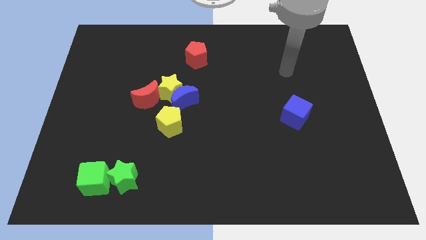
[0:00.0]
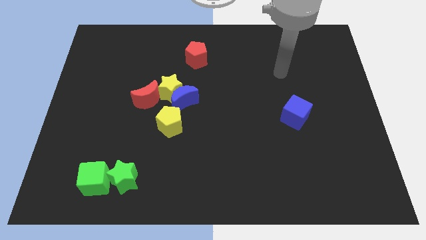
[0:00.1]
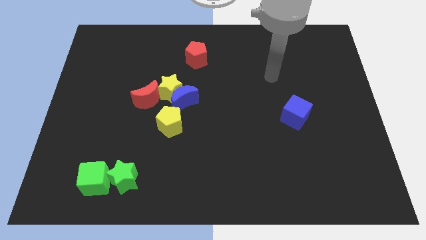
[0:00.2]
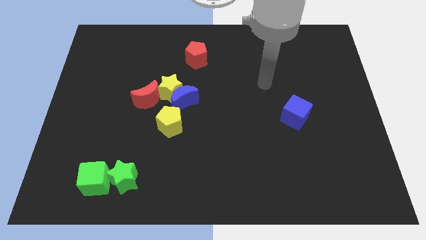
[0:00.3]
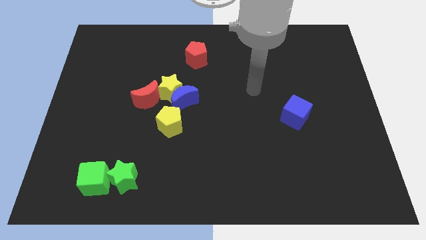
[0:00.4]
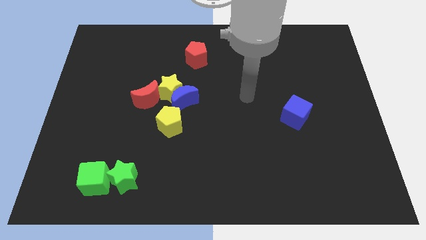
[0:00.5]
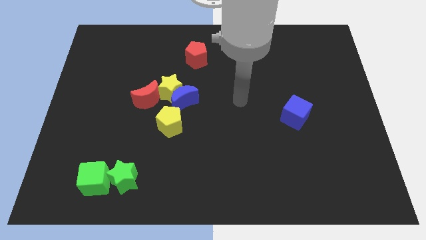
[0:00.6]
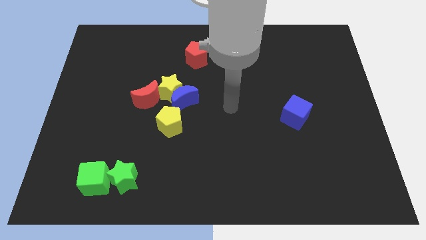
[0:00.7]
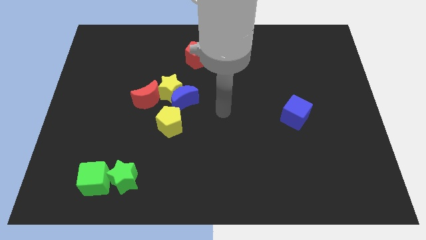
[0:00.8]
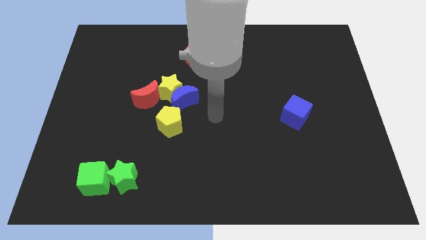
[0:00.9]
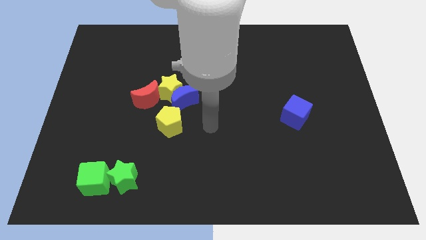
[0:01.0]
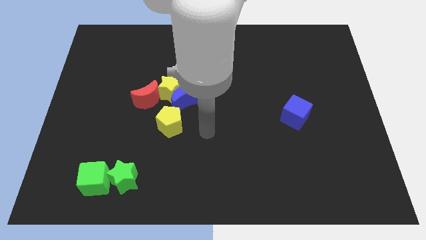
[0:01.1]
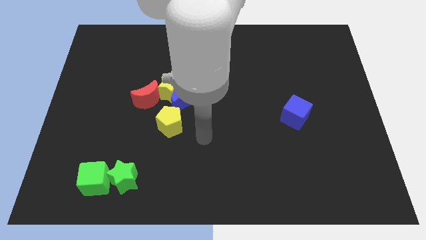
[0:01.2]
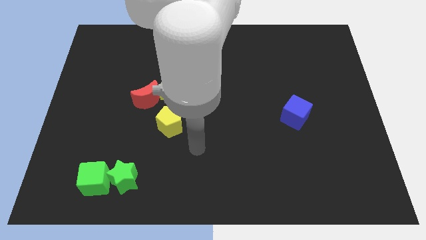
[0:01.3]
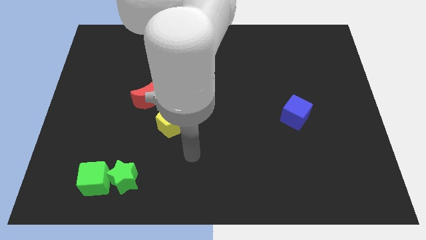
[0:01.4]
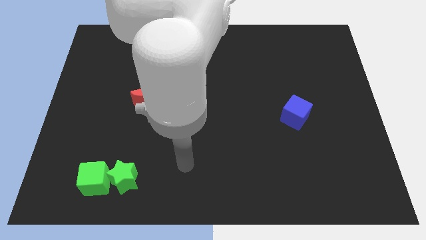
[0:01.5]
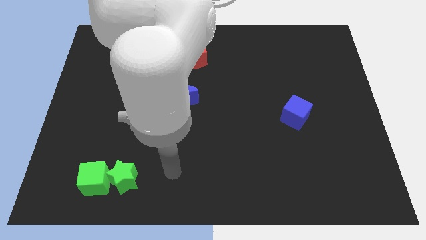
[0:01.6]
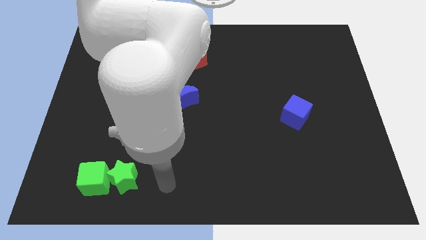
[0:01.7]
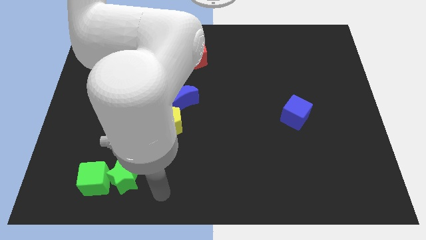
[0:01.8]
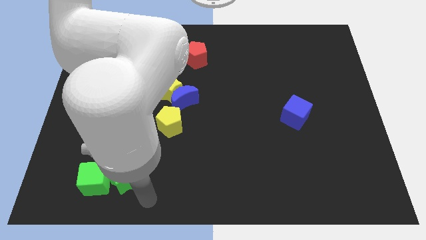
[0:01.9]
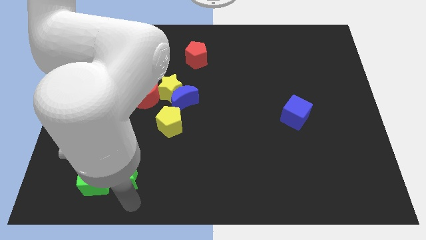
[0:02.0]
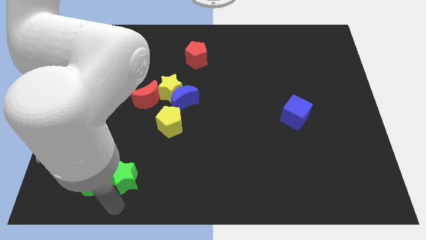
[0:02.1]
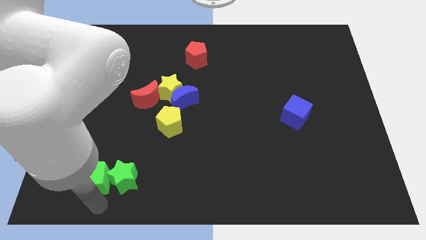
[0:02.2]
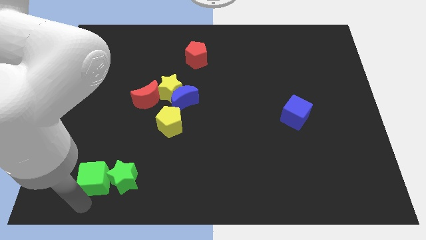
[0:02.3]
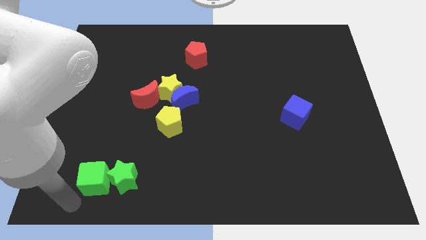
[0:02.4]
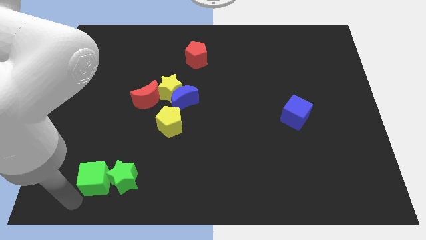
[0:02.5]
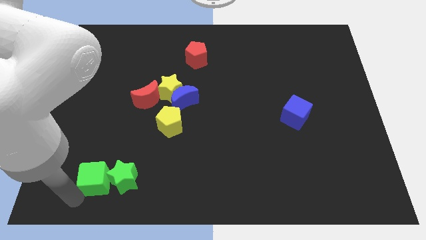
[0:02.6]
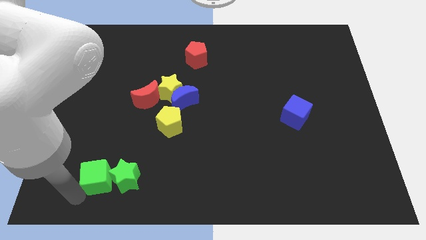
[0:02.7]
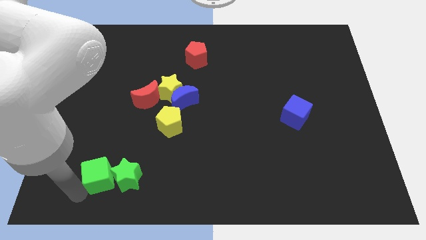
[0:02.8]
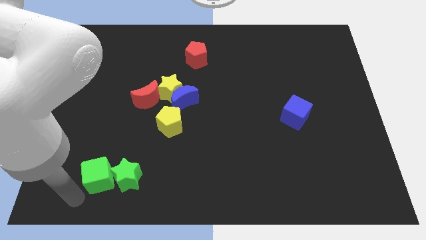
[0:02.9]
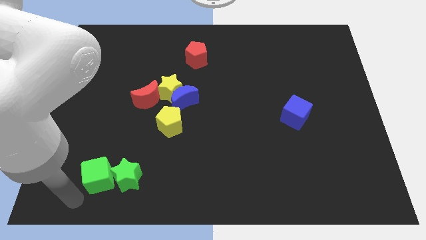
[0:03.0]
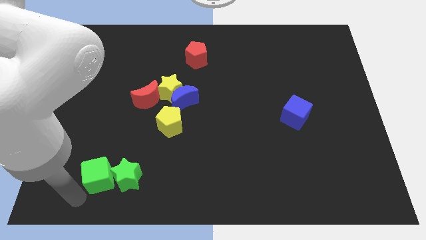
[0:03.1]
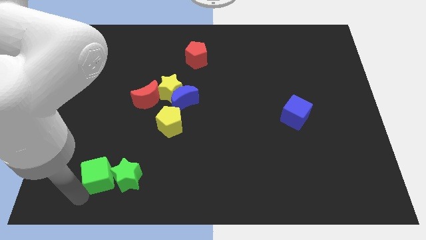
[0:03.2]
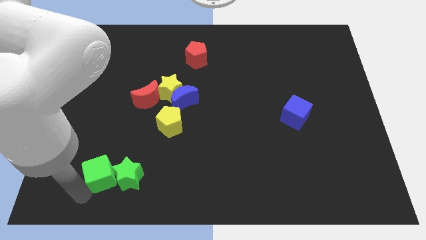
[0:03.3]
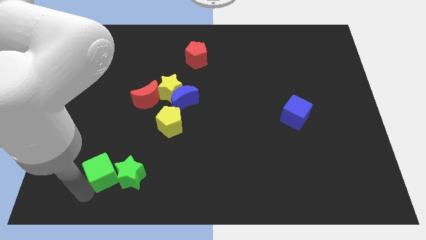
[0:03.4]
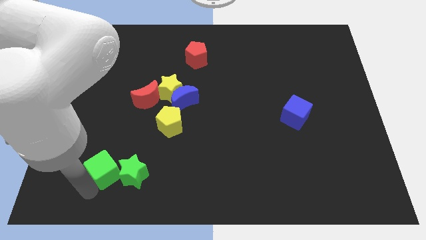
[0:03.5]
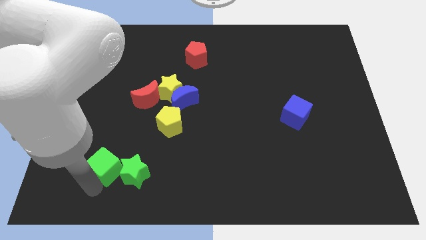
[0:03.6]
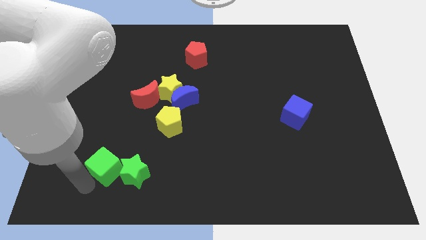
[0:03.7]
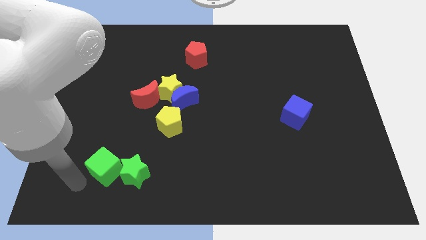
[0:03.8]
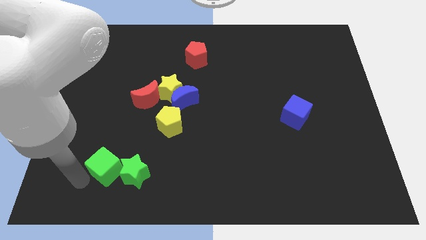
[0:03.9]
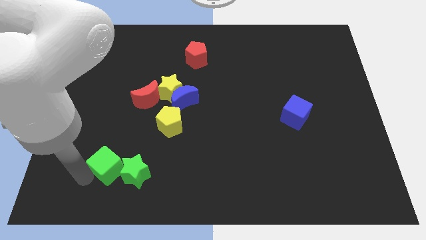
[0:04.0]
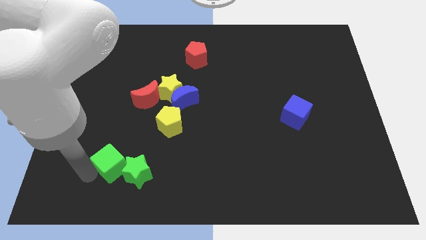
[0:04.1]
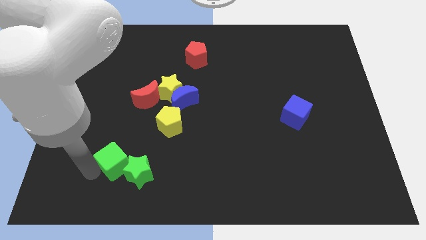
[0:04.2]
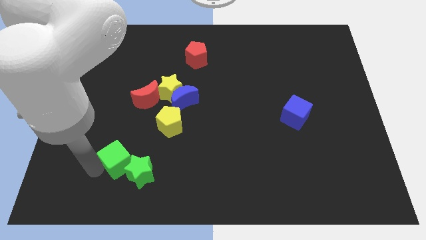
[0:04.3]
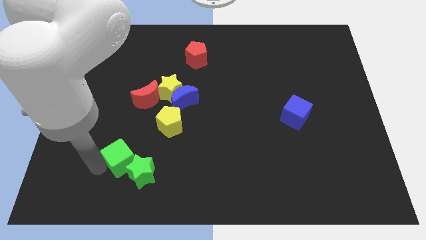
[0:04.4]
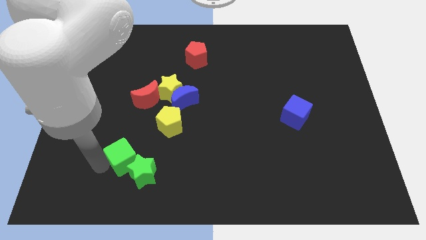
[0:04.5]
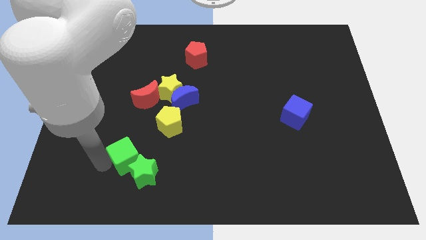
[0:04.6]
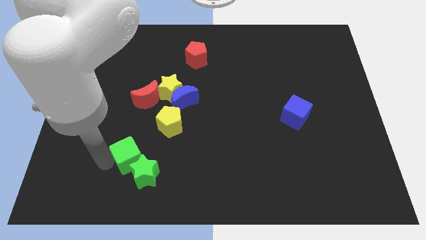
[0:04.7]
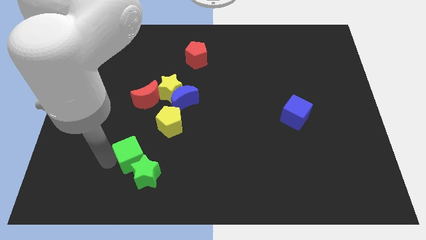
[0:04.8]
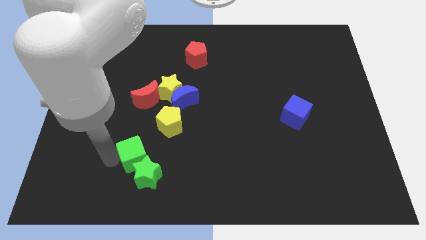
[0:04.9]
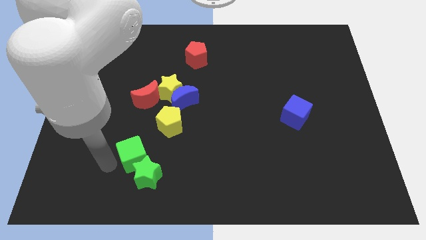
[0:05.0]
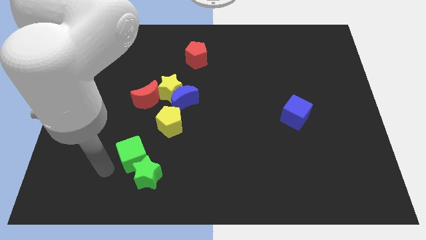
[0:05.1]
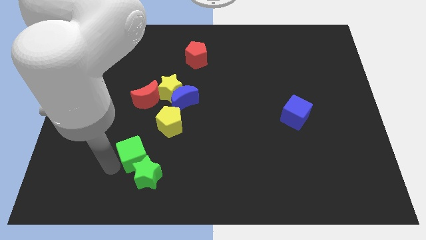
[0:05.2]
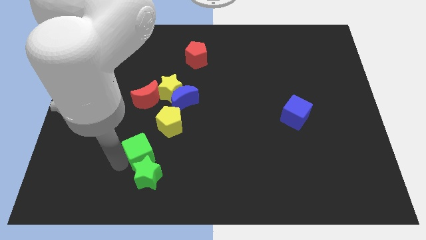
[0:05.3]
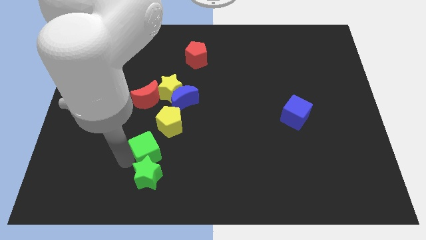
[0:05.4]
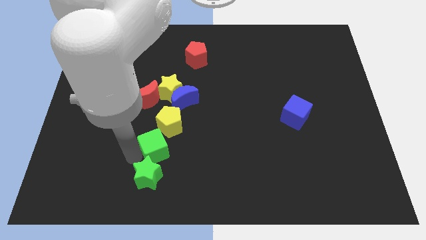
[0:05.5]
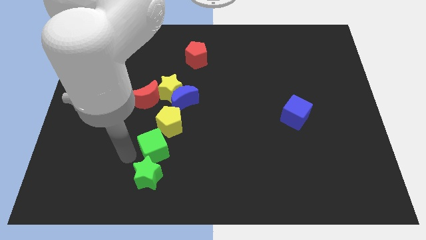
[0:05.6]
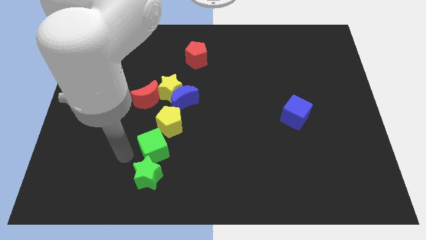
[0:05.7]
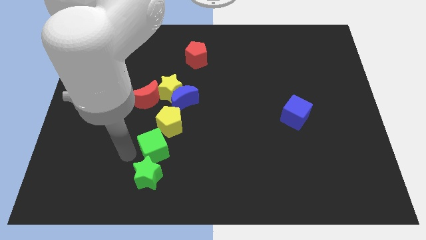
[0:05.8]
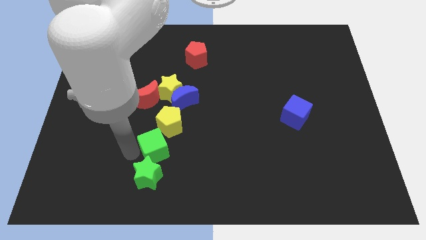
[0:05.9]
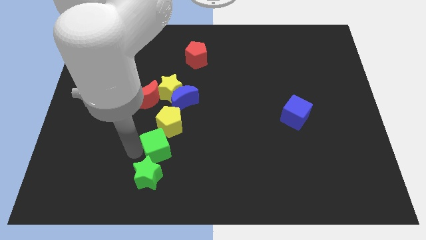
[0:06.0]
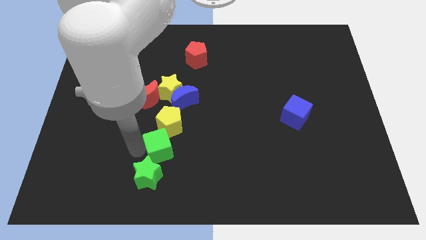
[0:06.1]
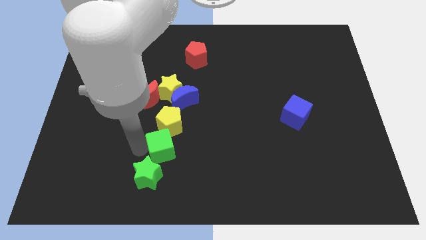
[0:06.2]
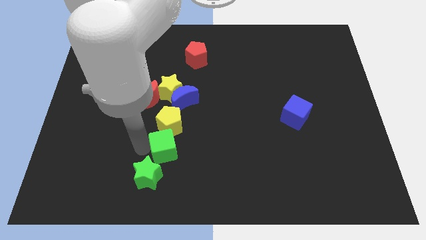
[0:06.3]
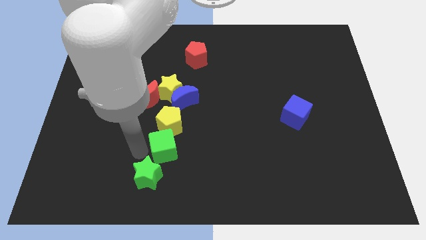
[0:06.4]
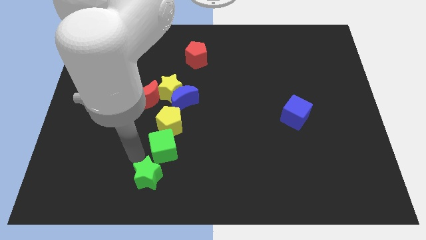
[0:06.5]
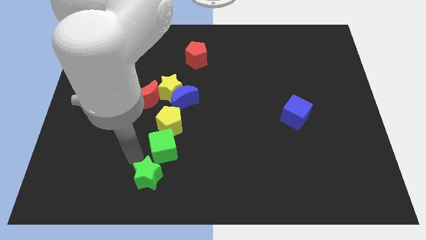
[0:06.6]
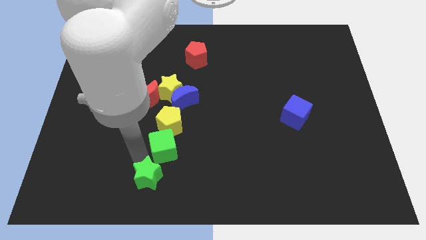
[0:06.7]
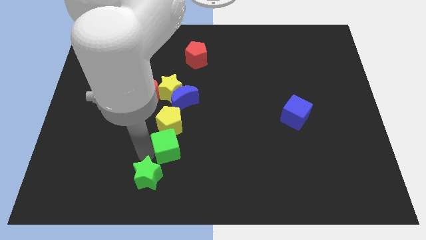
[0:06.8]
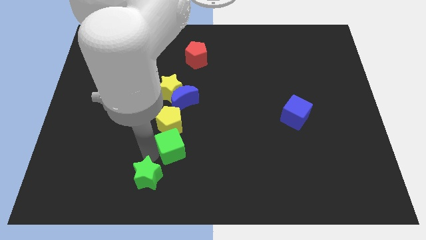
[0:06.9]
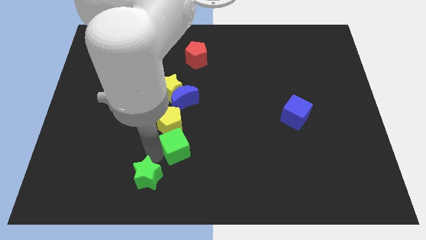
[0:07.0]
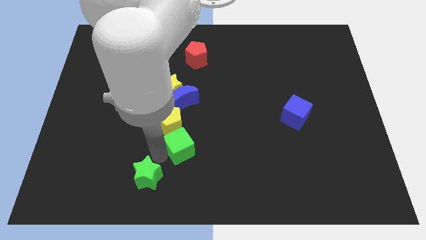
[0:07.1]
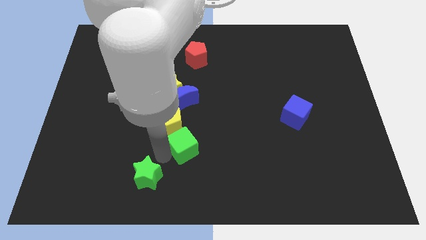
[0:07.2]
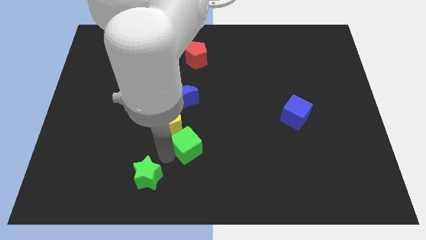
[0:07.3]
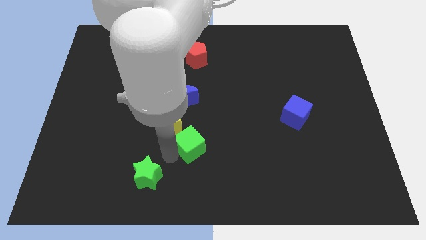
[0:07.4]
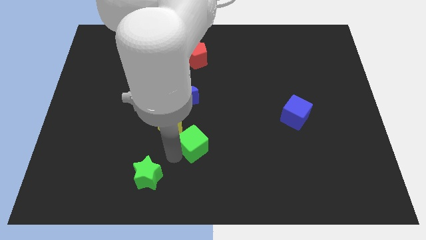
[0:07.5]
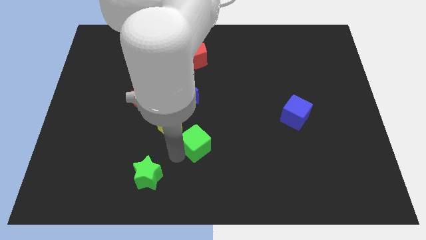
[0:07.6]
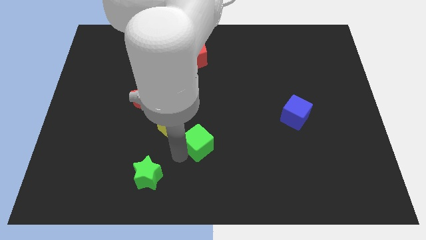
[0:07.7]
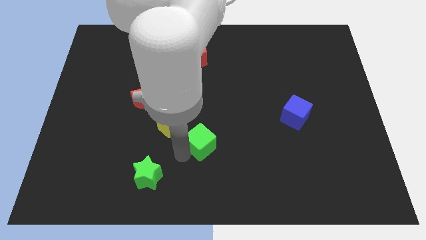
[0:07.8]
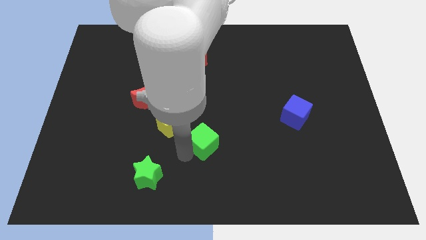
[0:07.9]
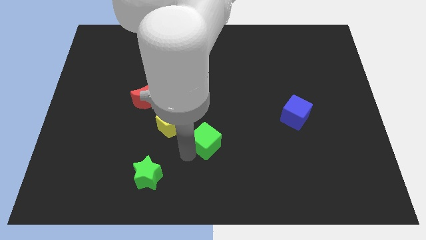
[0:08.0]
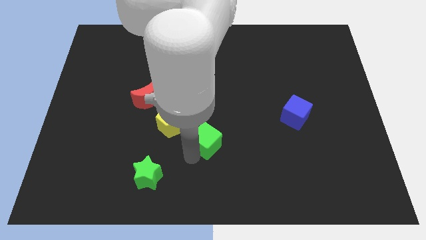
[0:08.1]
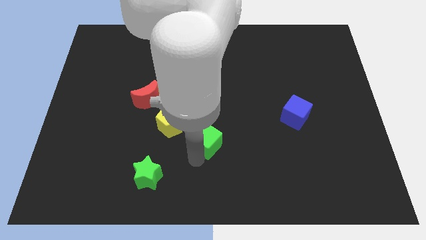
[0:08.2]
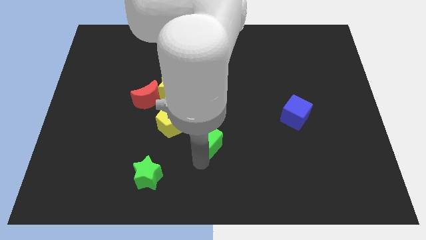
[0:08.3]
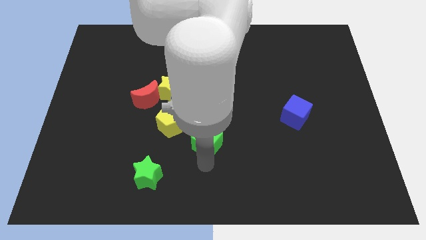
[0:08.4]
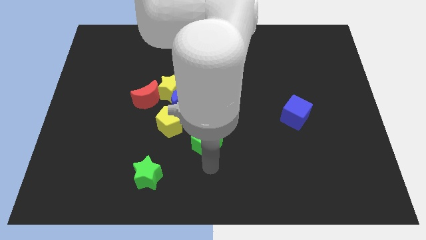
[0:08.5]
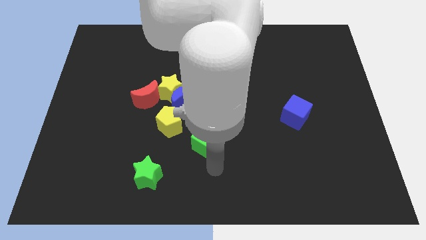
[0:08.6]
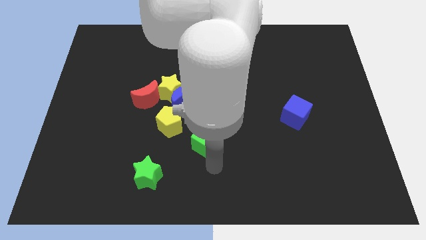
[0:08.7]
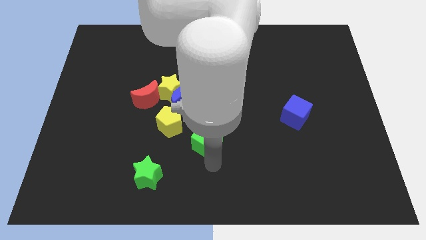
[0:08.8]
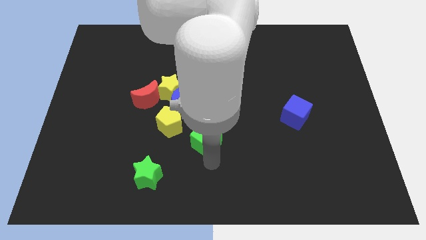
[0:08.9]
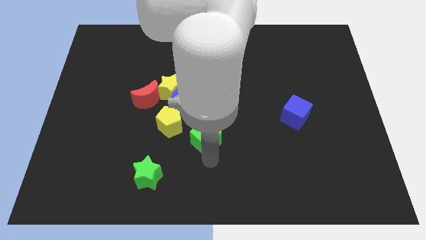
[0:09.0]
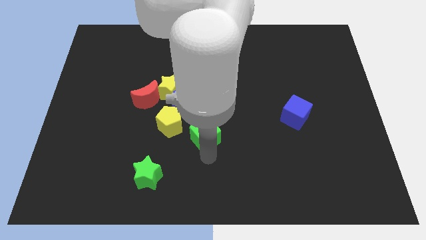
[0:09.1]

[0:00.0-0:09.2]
move the green cube up and to the right diagonally
